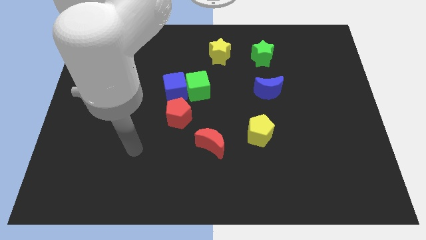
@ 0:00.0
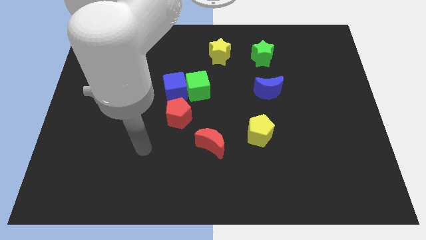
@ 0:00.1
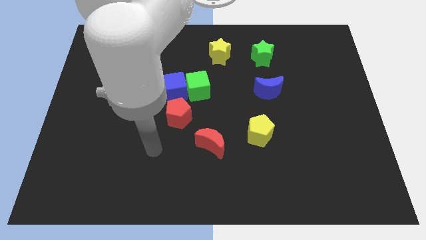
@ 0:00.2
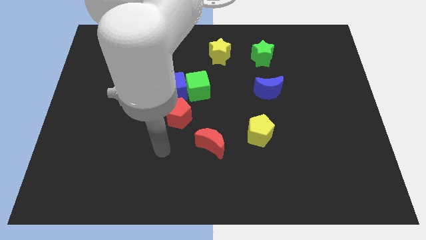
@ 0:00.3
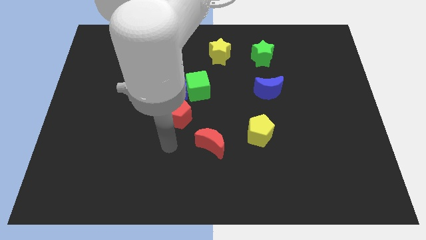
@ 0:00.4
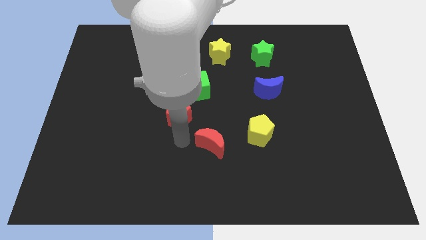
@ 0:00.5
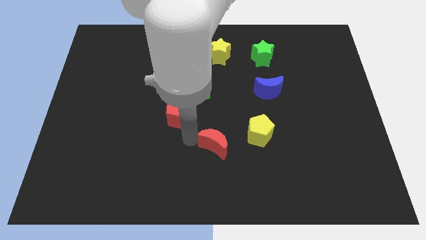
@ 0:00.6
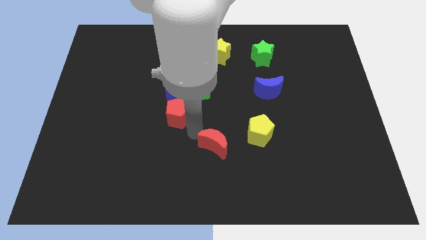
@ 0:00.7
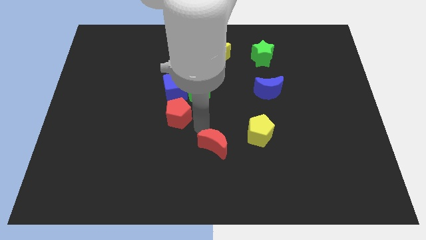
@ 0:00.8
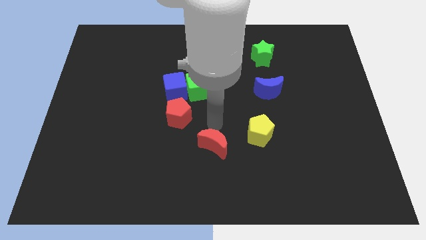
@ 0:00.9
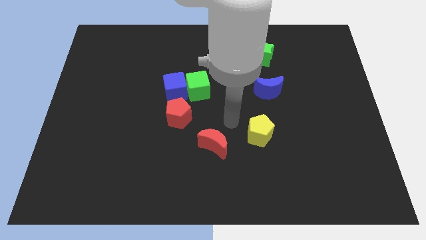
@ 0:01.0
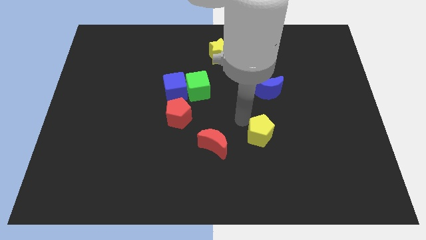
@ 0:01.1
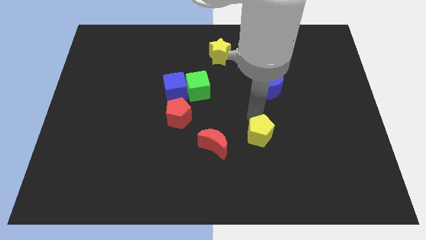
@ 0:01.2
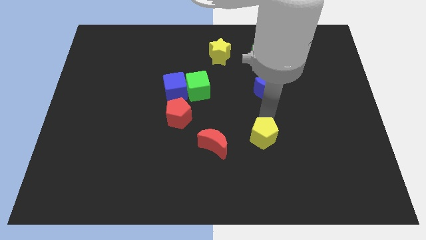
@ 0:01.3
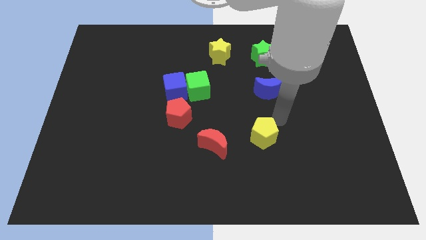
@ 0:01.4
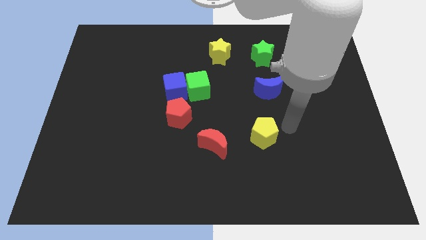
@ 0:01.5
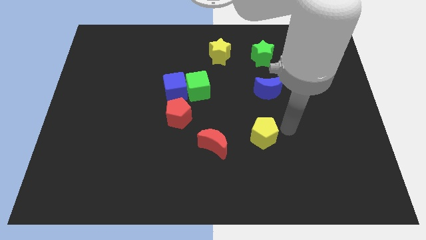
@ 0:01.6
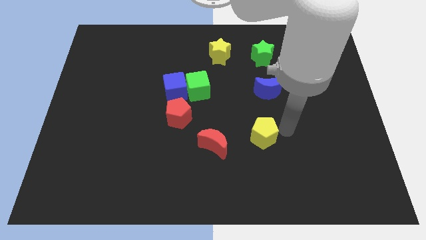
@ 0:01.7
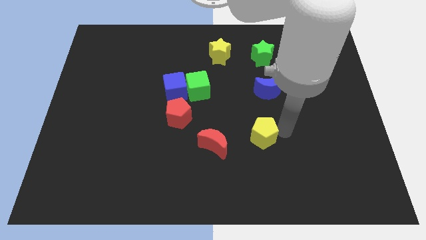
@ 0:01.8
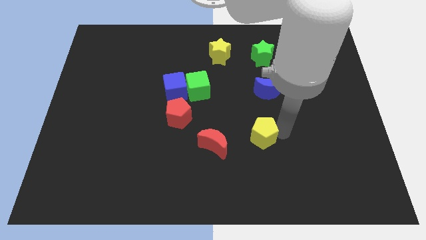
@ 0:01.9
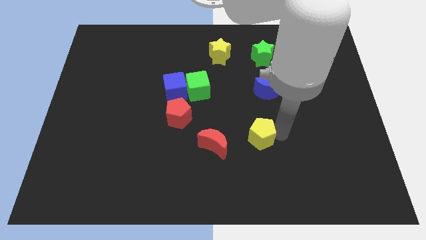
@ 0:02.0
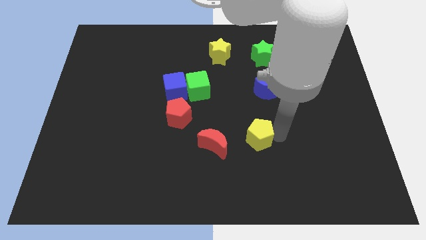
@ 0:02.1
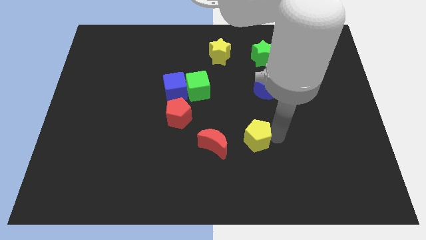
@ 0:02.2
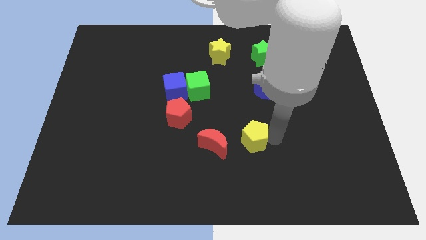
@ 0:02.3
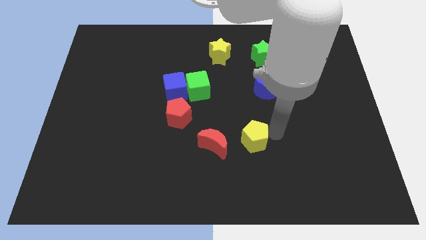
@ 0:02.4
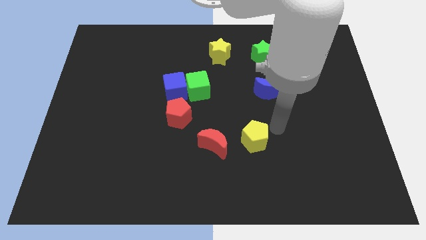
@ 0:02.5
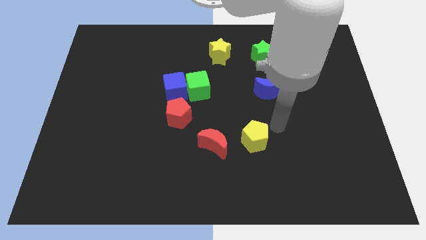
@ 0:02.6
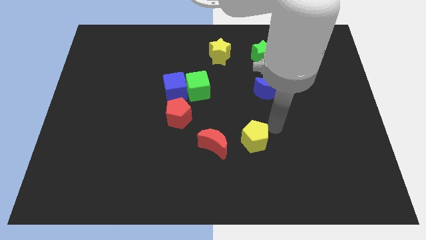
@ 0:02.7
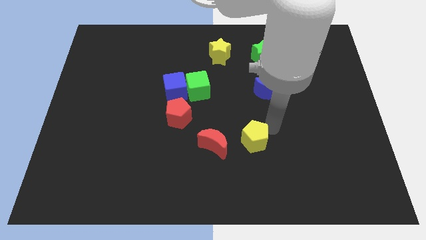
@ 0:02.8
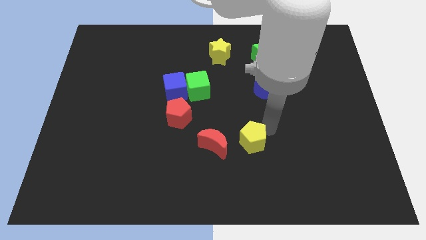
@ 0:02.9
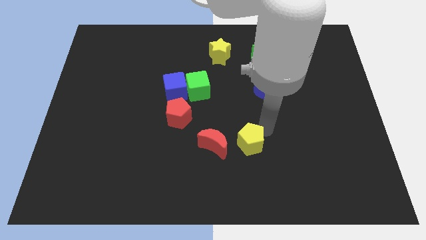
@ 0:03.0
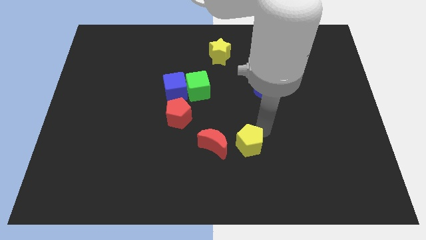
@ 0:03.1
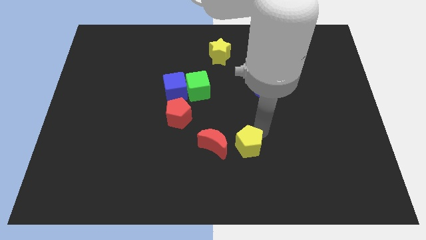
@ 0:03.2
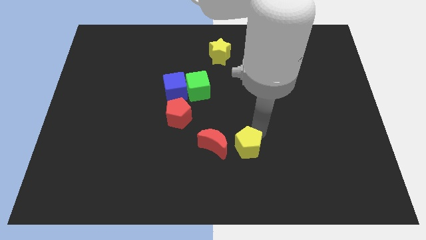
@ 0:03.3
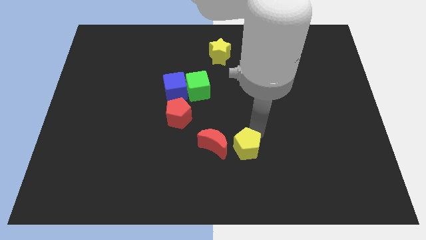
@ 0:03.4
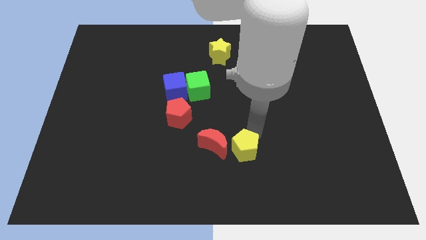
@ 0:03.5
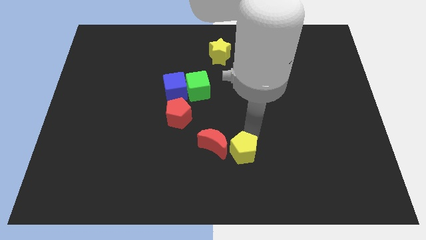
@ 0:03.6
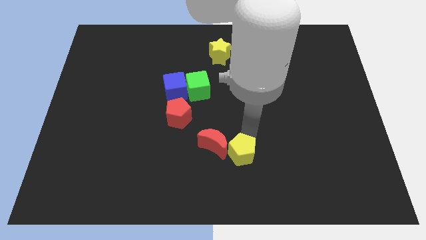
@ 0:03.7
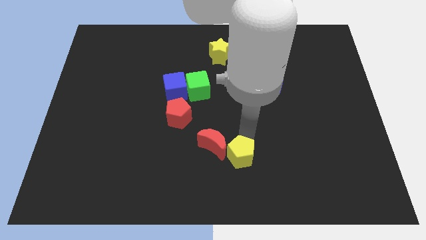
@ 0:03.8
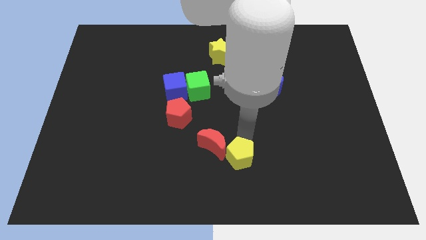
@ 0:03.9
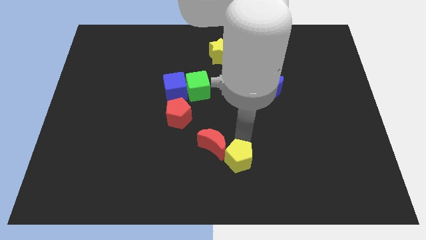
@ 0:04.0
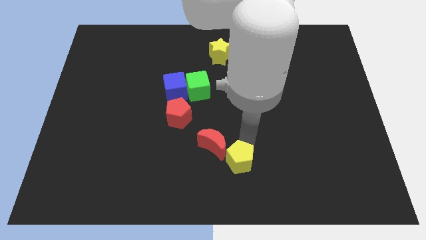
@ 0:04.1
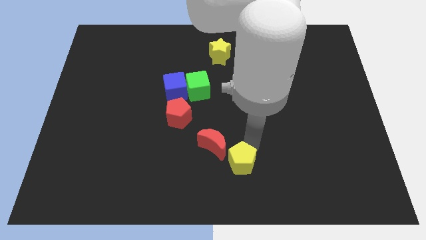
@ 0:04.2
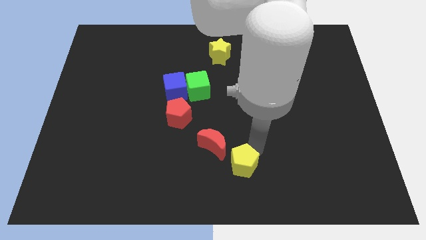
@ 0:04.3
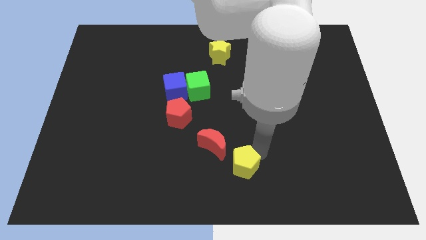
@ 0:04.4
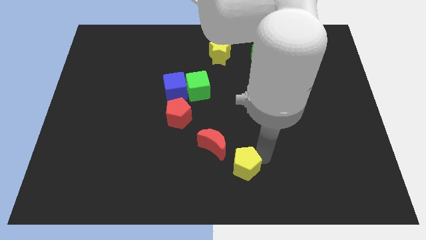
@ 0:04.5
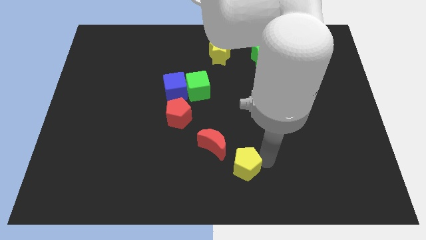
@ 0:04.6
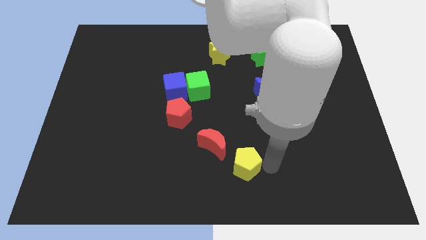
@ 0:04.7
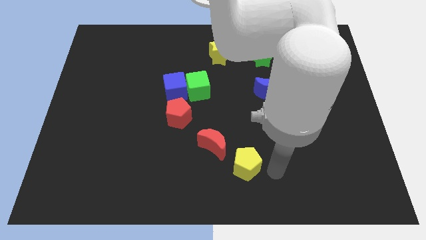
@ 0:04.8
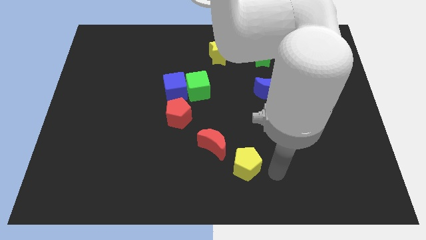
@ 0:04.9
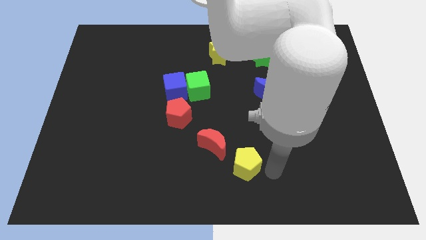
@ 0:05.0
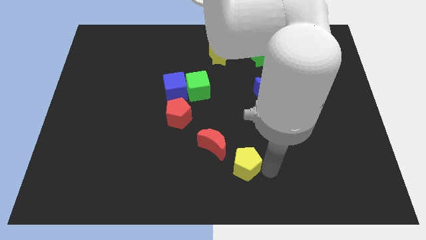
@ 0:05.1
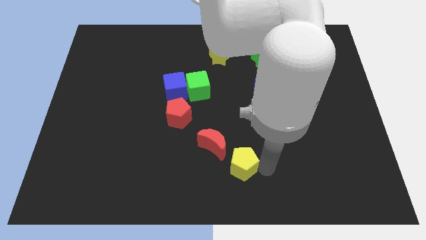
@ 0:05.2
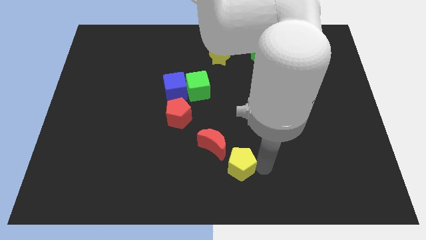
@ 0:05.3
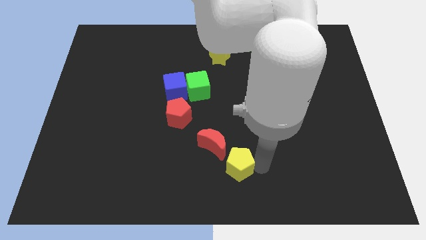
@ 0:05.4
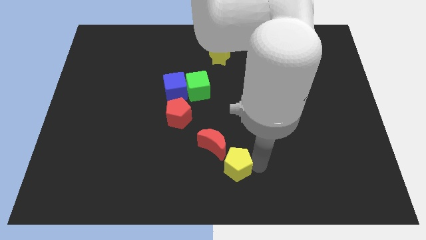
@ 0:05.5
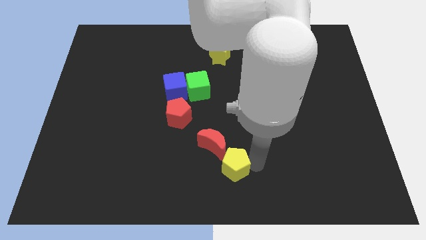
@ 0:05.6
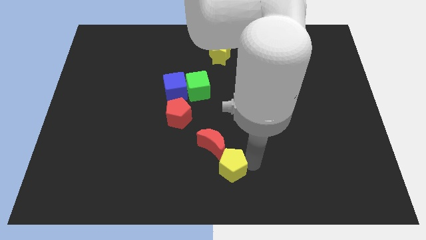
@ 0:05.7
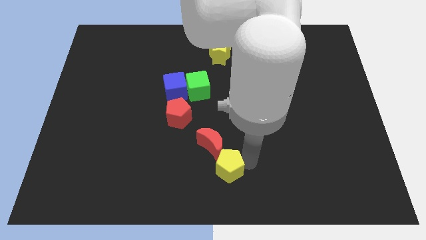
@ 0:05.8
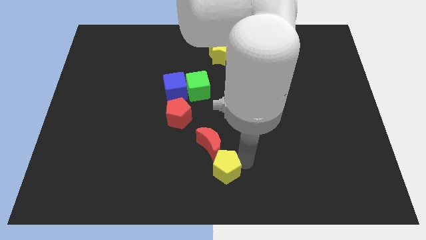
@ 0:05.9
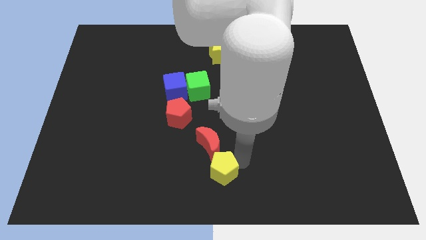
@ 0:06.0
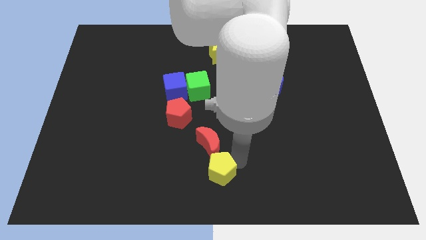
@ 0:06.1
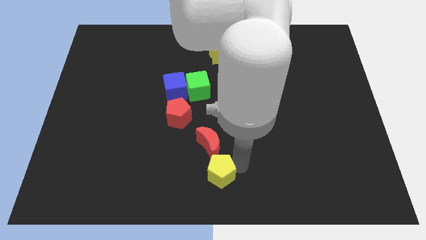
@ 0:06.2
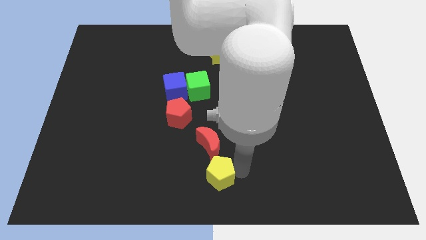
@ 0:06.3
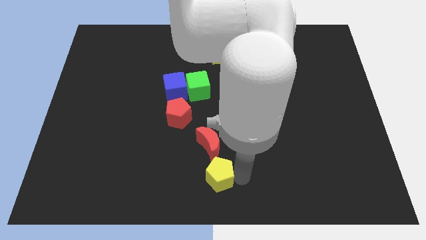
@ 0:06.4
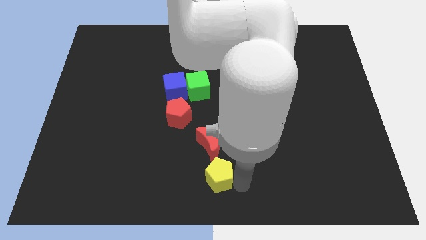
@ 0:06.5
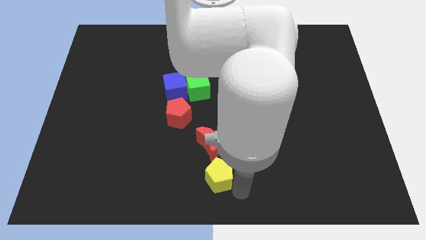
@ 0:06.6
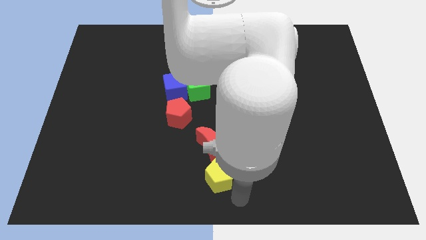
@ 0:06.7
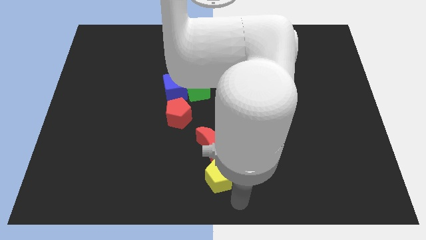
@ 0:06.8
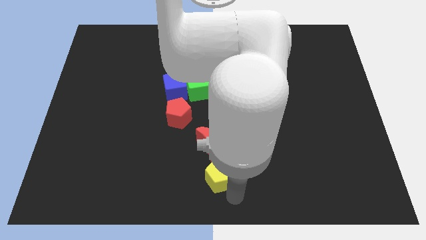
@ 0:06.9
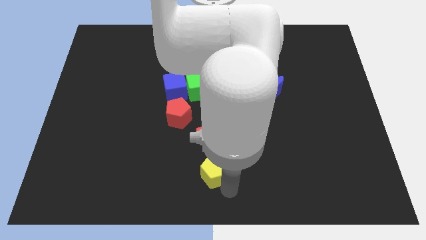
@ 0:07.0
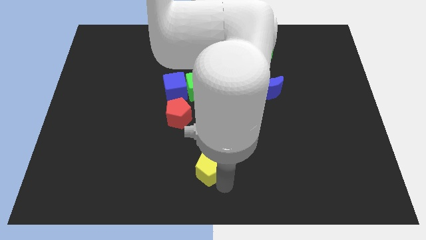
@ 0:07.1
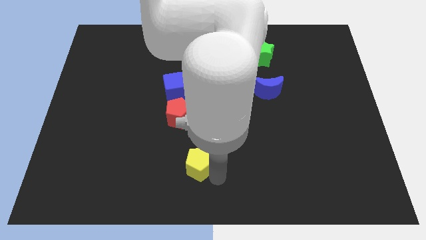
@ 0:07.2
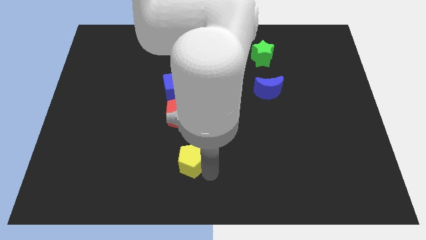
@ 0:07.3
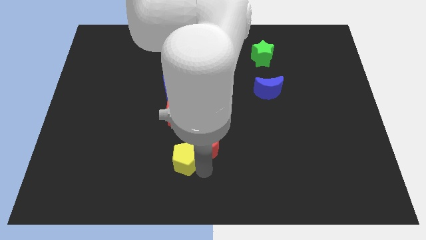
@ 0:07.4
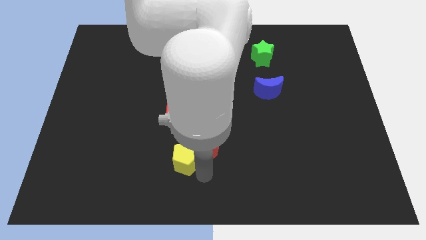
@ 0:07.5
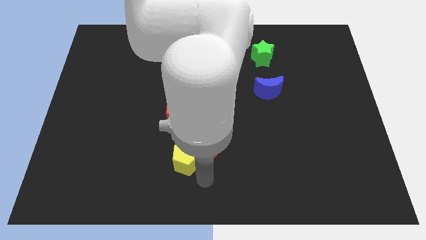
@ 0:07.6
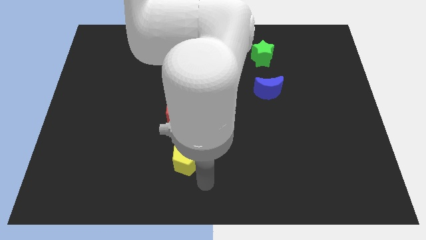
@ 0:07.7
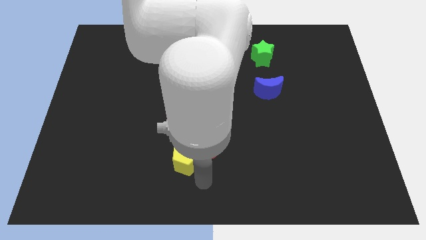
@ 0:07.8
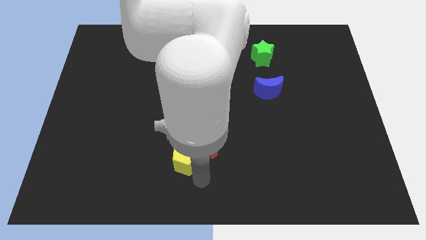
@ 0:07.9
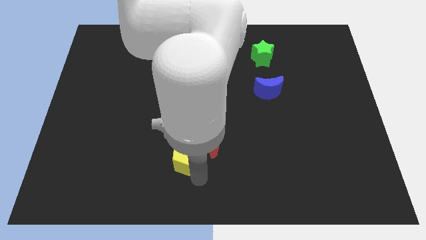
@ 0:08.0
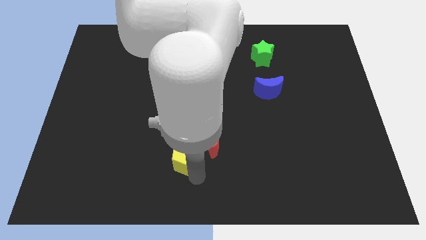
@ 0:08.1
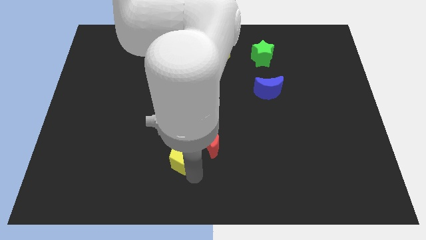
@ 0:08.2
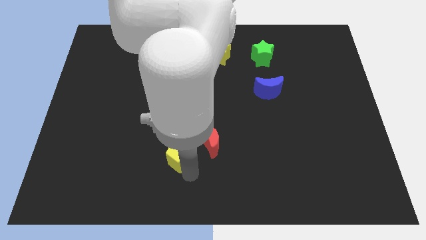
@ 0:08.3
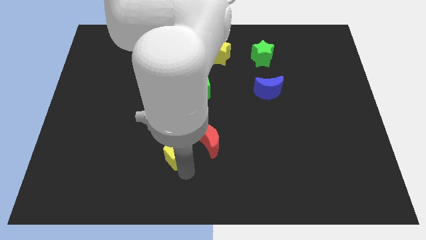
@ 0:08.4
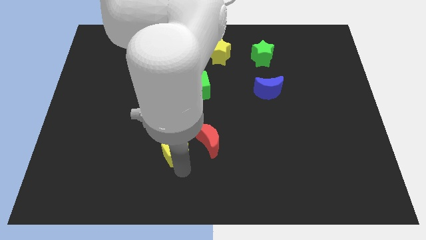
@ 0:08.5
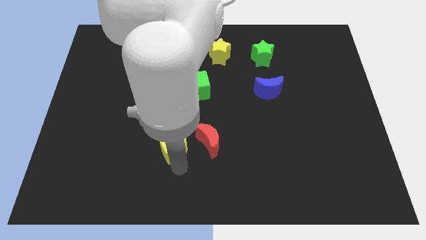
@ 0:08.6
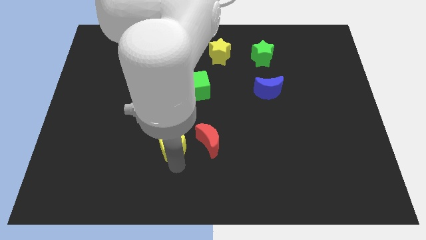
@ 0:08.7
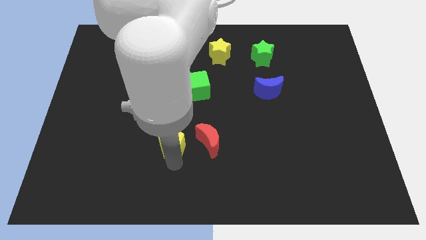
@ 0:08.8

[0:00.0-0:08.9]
put the yellow pentagon to the bottom side of the blue cube
